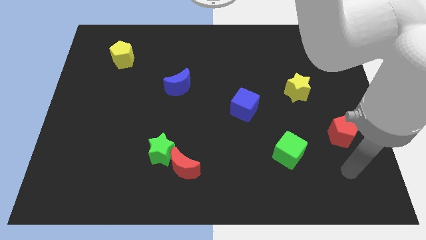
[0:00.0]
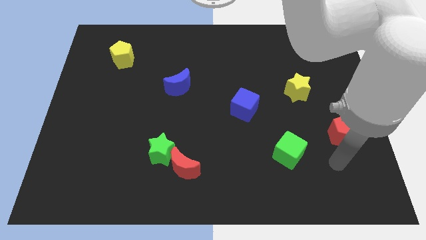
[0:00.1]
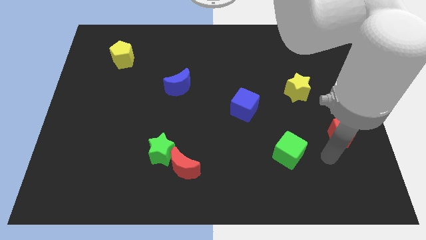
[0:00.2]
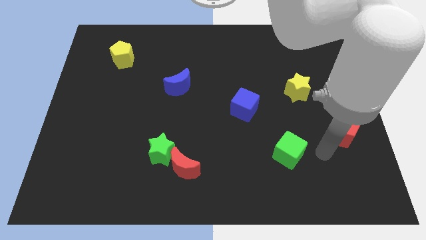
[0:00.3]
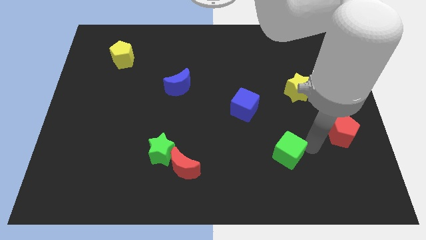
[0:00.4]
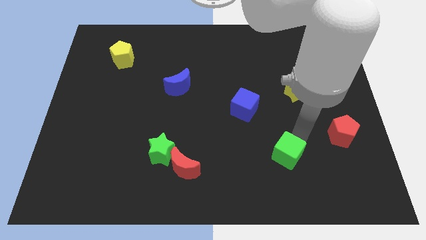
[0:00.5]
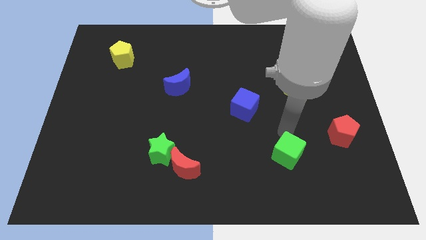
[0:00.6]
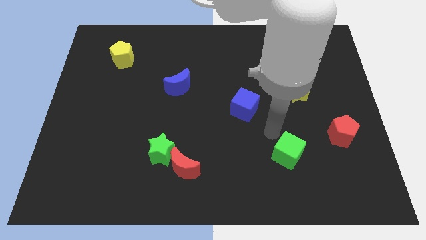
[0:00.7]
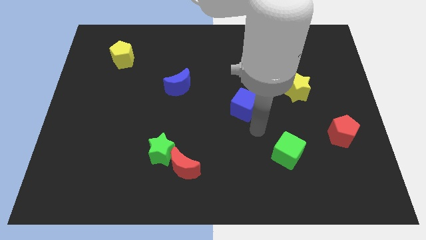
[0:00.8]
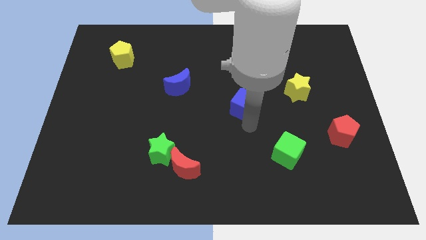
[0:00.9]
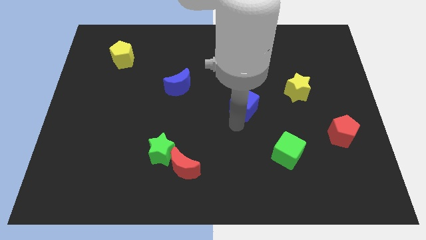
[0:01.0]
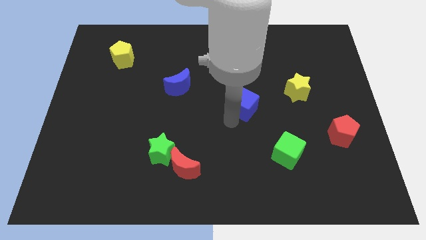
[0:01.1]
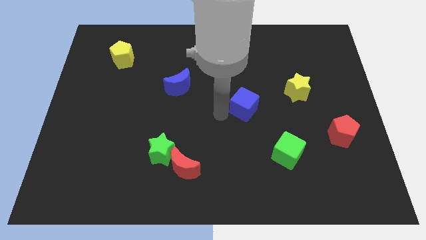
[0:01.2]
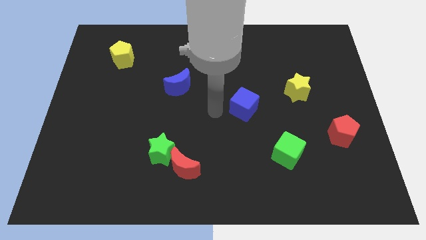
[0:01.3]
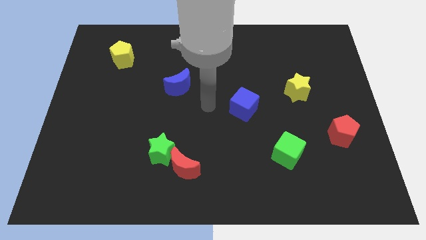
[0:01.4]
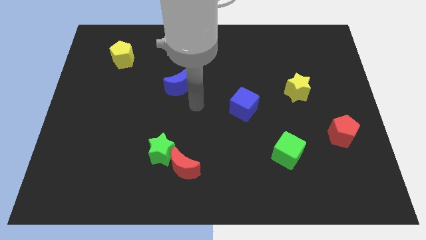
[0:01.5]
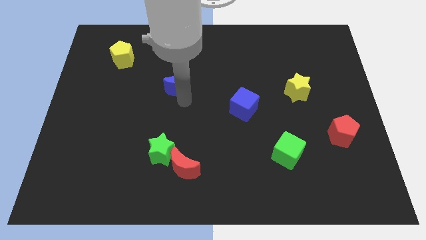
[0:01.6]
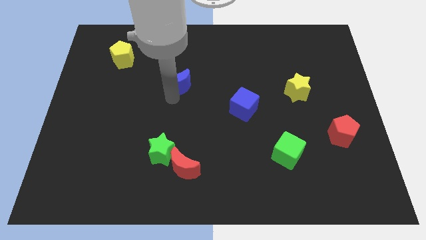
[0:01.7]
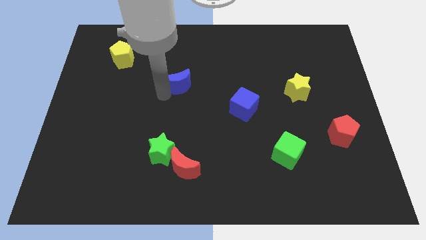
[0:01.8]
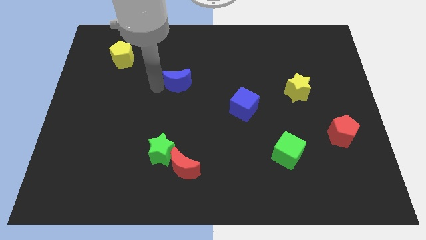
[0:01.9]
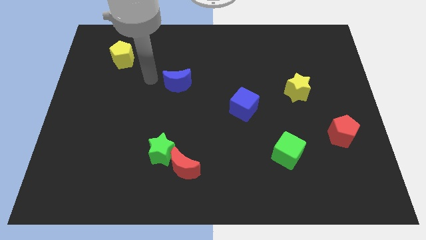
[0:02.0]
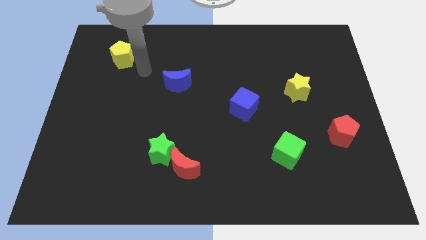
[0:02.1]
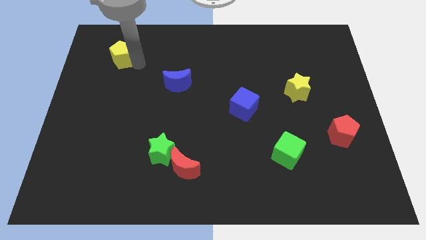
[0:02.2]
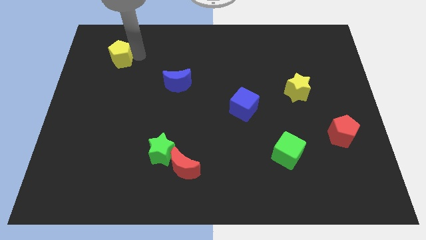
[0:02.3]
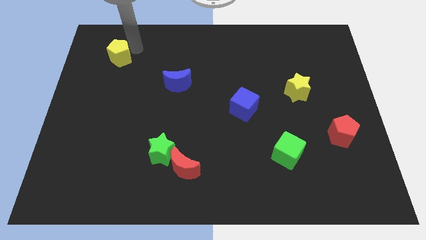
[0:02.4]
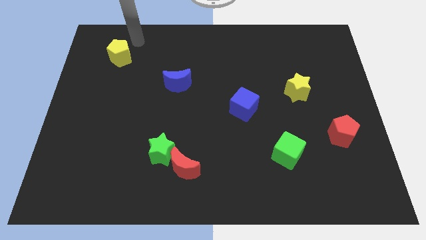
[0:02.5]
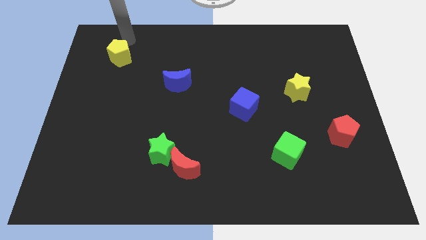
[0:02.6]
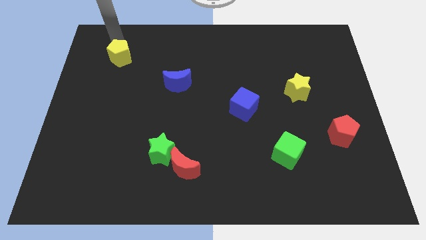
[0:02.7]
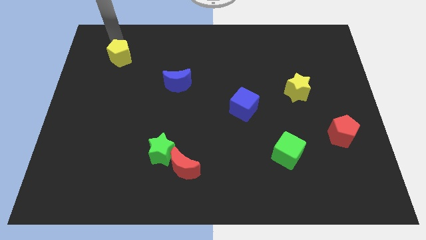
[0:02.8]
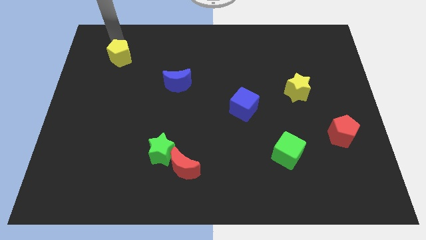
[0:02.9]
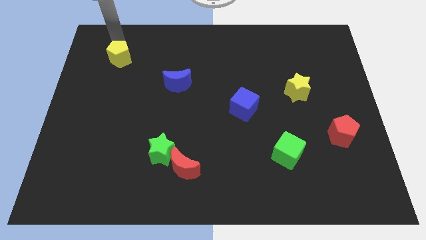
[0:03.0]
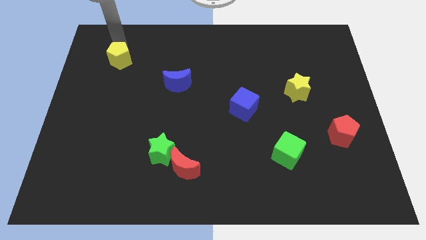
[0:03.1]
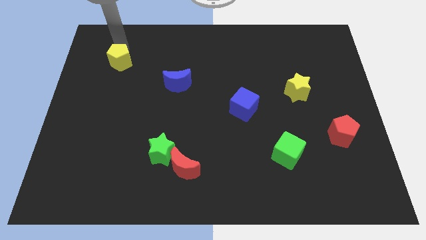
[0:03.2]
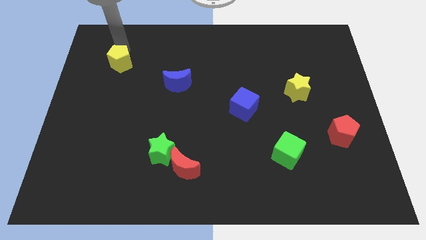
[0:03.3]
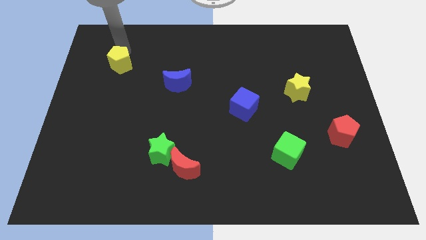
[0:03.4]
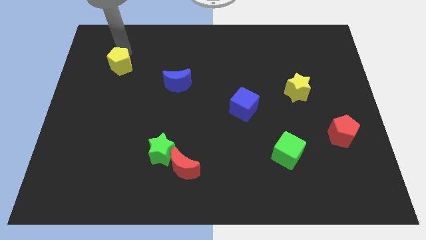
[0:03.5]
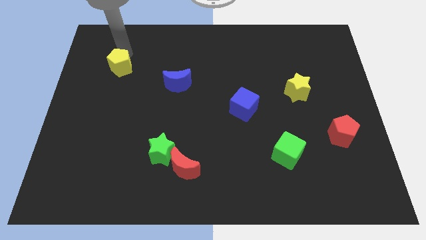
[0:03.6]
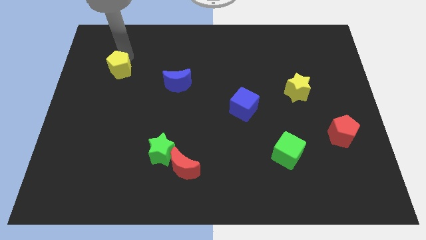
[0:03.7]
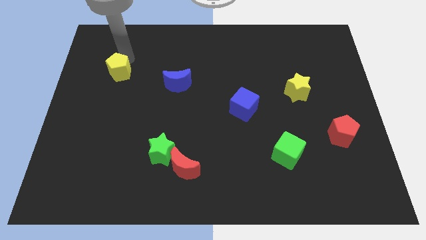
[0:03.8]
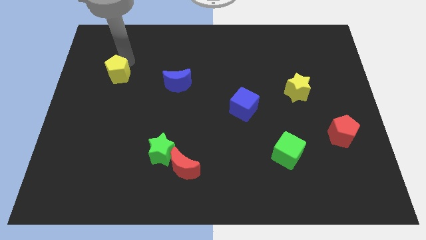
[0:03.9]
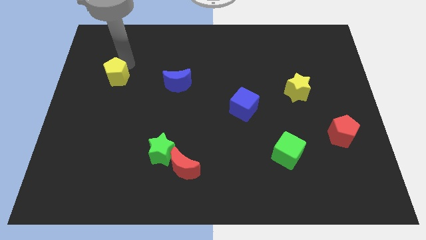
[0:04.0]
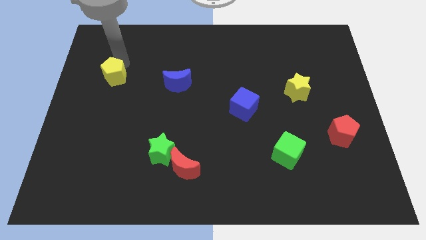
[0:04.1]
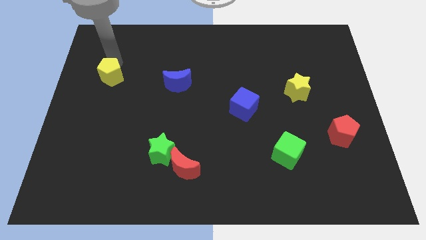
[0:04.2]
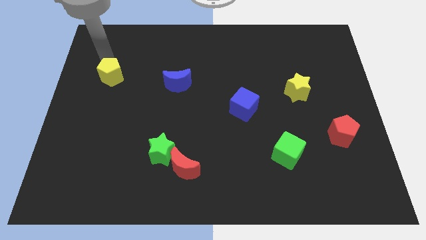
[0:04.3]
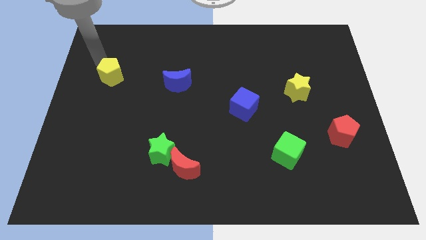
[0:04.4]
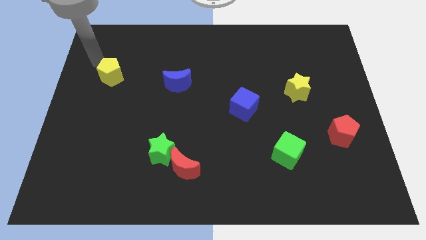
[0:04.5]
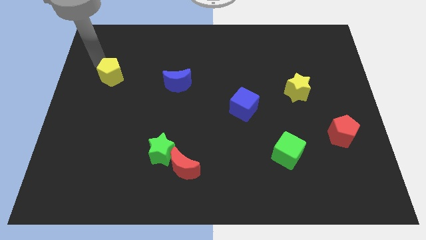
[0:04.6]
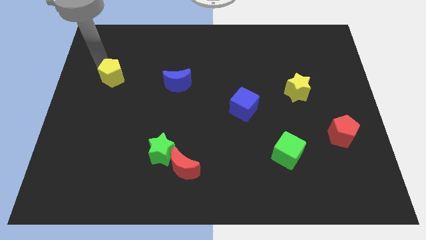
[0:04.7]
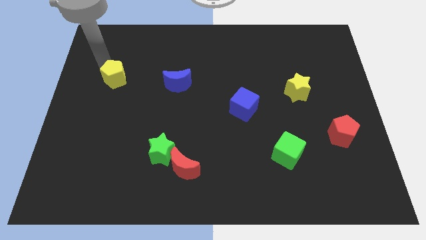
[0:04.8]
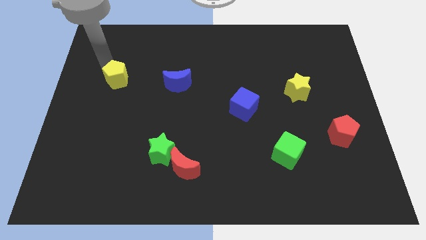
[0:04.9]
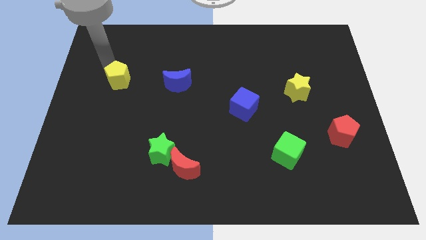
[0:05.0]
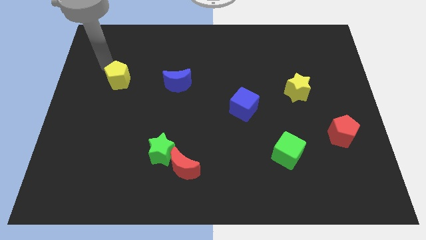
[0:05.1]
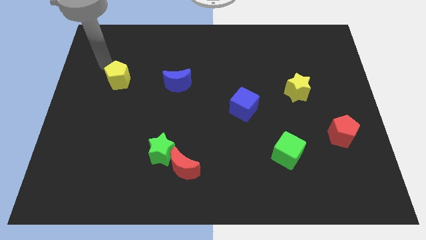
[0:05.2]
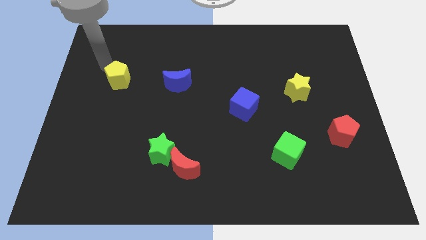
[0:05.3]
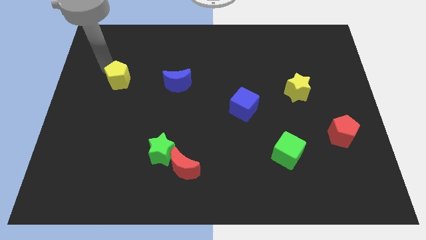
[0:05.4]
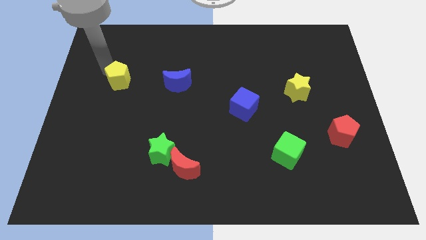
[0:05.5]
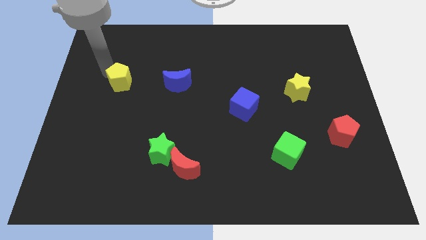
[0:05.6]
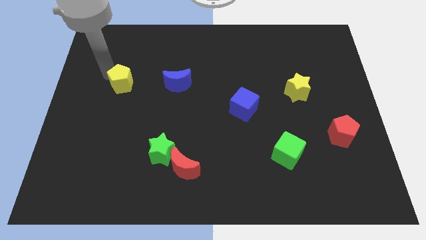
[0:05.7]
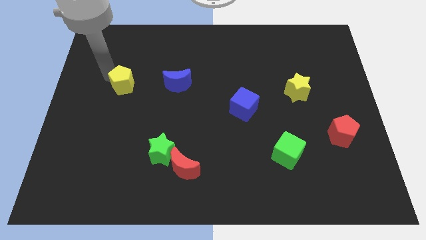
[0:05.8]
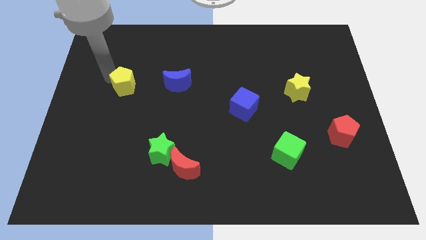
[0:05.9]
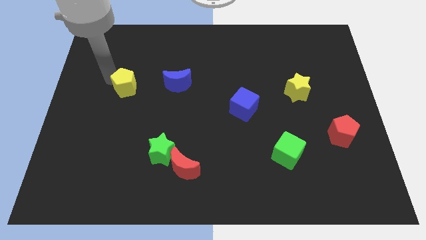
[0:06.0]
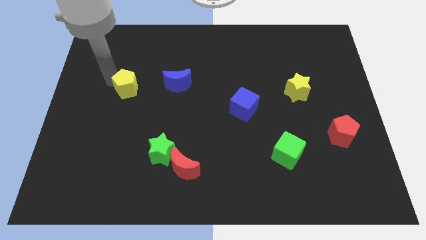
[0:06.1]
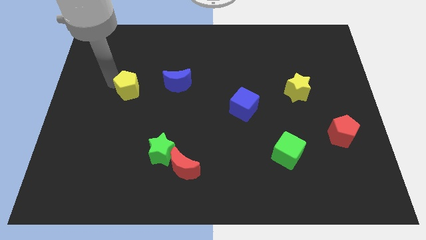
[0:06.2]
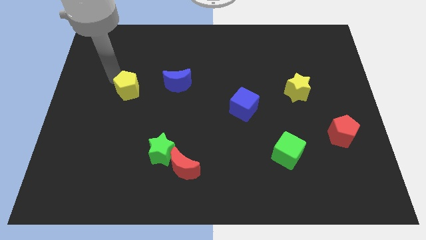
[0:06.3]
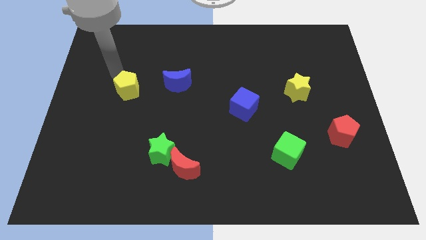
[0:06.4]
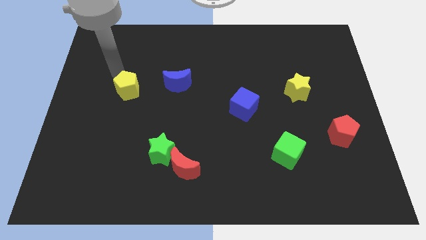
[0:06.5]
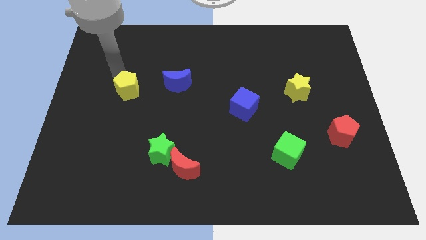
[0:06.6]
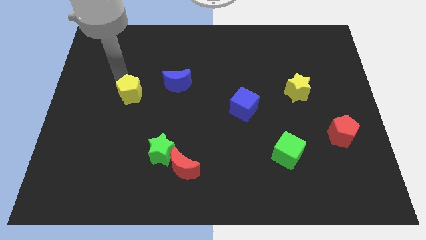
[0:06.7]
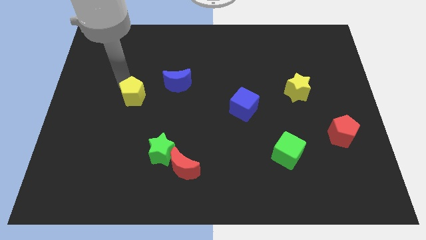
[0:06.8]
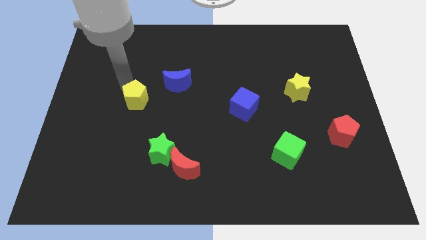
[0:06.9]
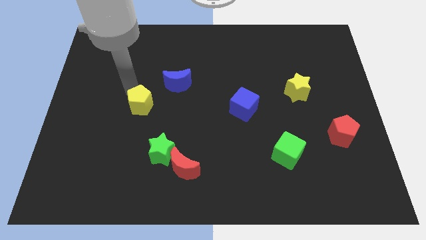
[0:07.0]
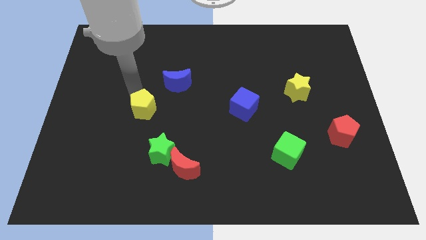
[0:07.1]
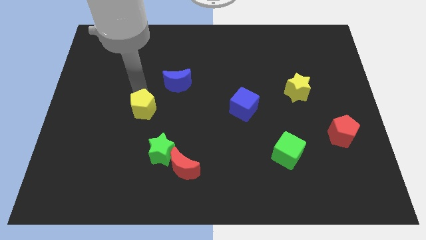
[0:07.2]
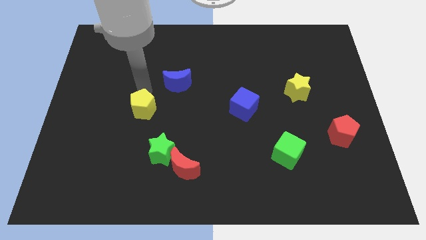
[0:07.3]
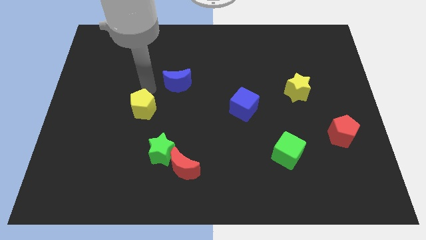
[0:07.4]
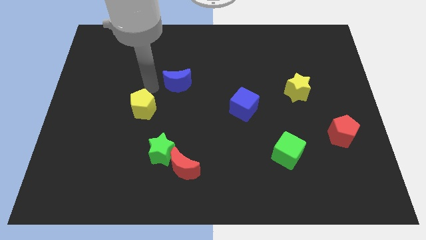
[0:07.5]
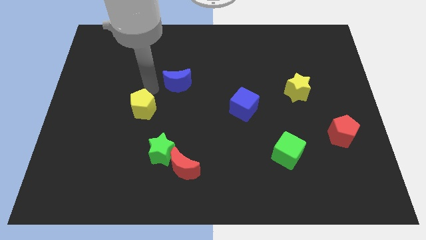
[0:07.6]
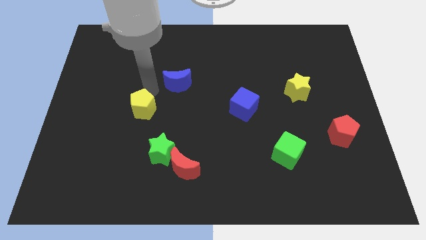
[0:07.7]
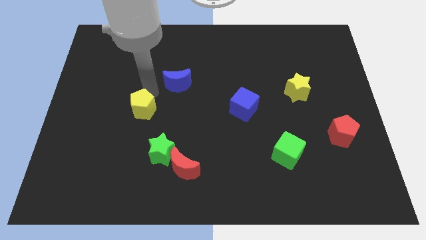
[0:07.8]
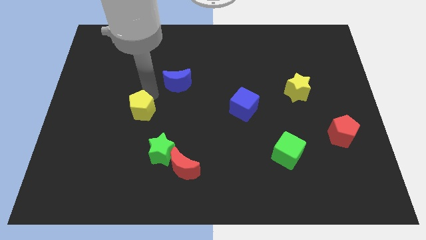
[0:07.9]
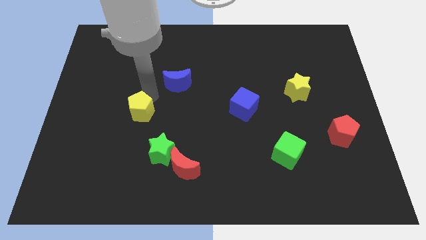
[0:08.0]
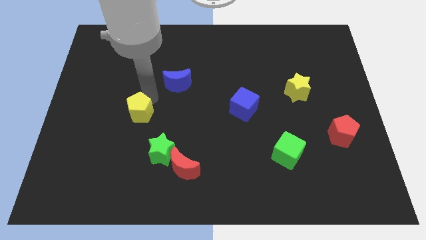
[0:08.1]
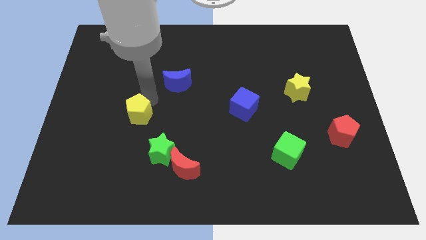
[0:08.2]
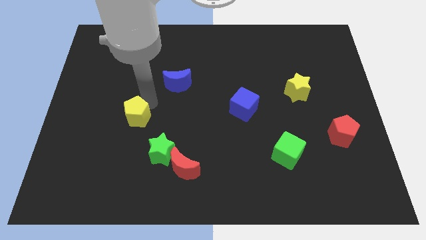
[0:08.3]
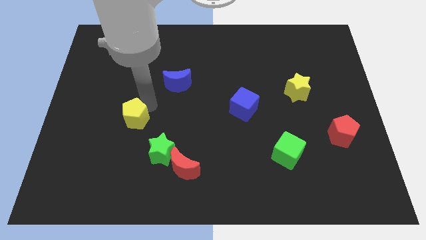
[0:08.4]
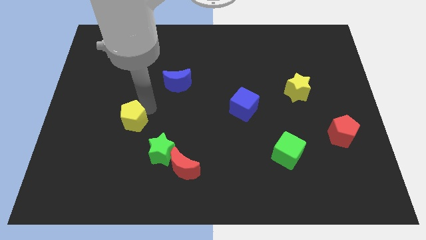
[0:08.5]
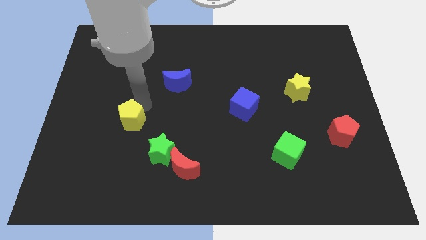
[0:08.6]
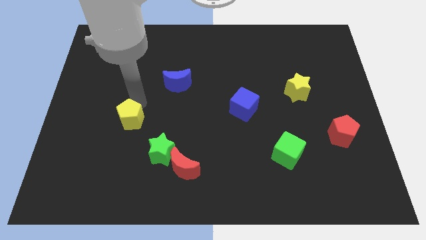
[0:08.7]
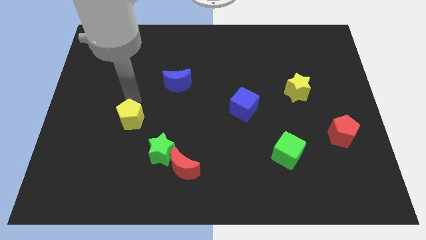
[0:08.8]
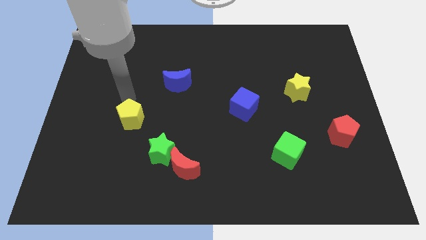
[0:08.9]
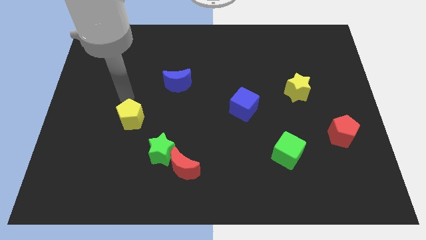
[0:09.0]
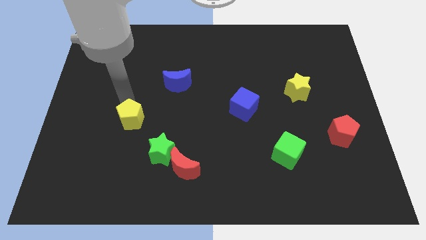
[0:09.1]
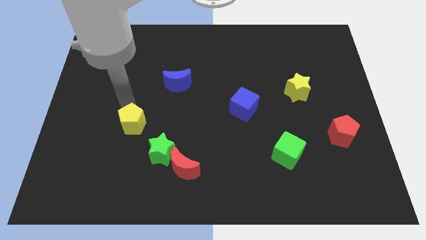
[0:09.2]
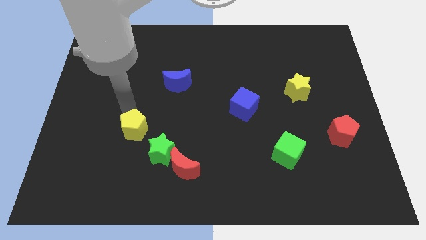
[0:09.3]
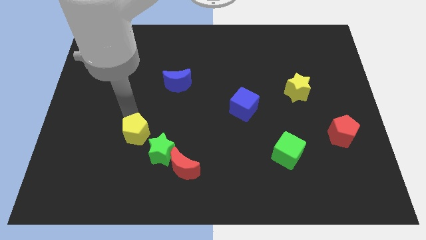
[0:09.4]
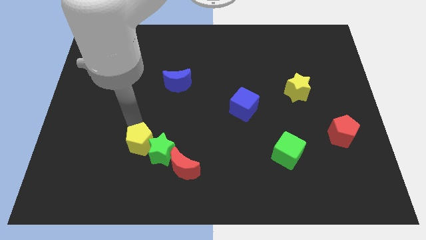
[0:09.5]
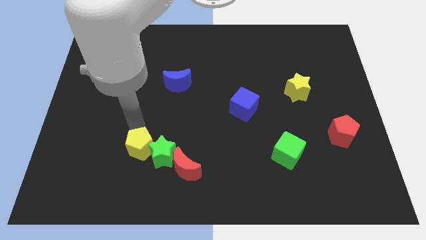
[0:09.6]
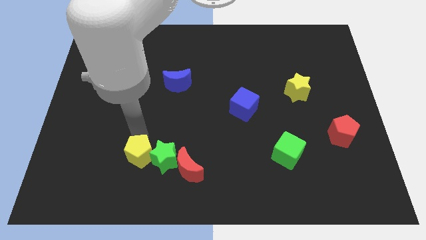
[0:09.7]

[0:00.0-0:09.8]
put the yellow pentagon left of the red moon
